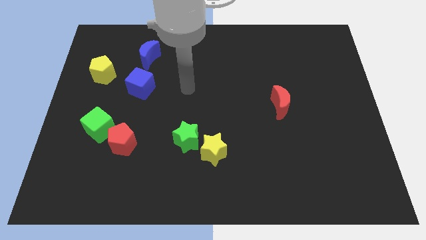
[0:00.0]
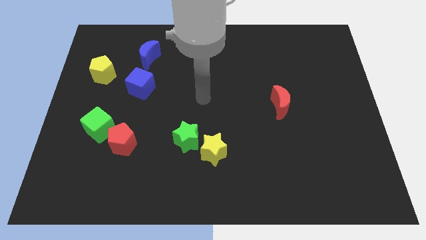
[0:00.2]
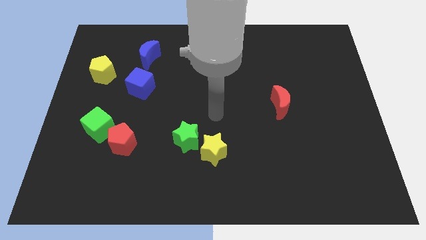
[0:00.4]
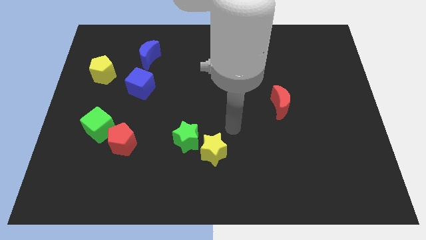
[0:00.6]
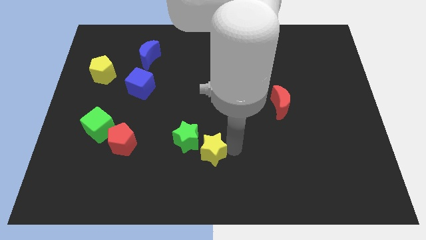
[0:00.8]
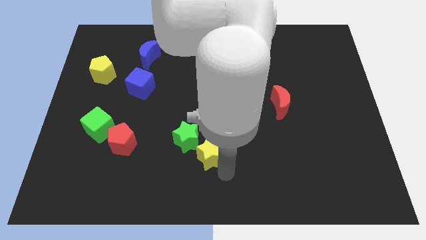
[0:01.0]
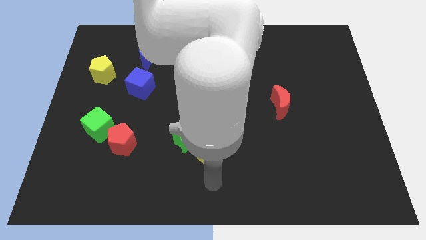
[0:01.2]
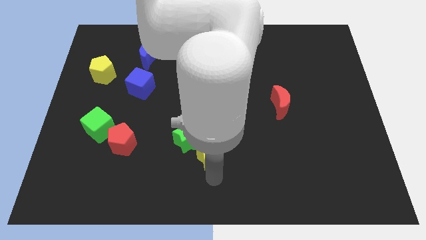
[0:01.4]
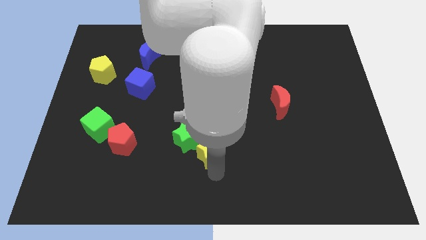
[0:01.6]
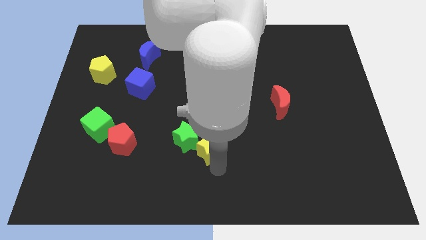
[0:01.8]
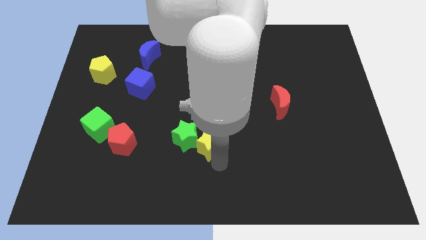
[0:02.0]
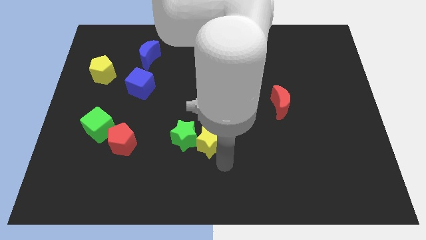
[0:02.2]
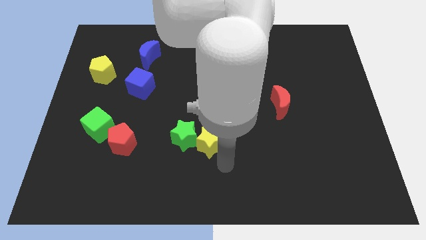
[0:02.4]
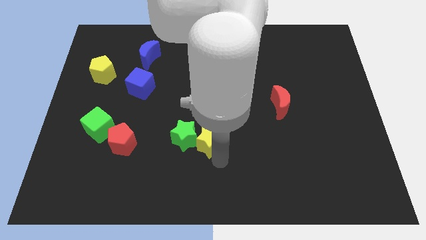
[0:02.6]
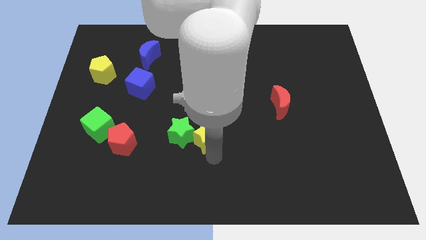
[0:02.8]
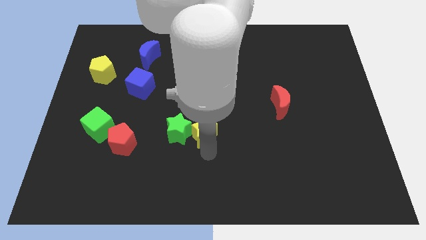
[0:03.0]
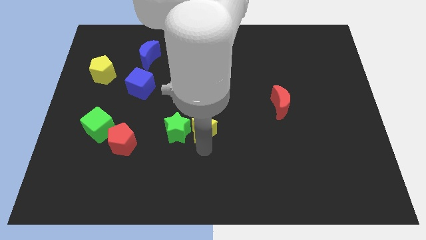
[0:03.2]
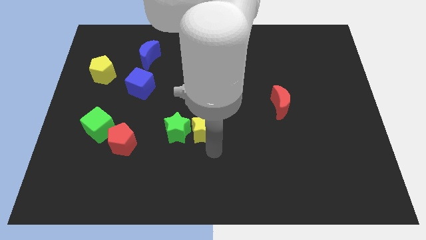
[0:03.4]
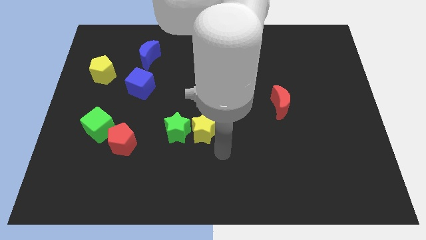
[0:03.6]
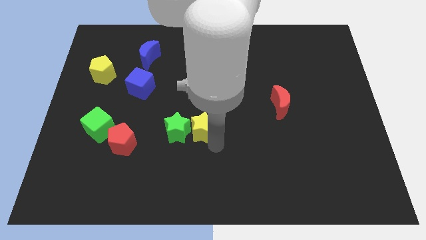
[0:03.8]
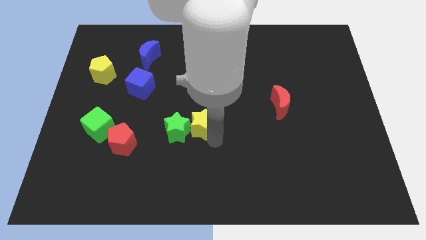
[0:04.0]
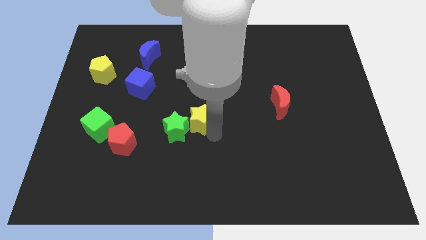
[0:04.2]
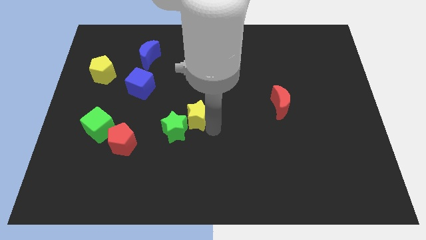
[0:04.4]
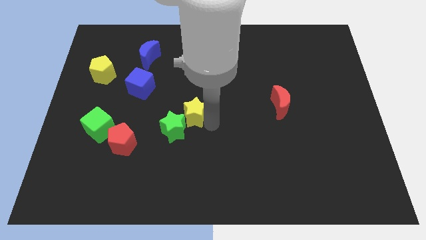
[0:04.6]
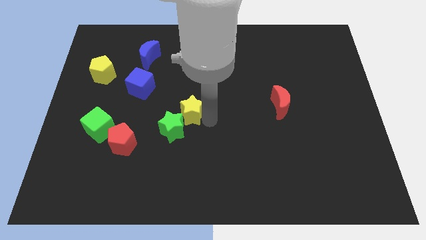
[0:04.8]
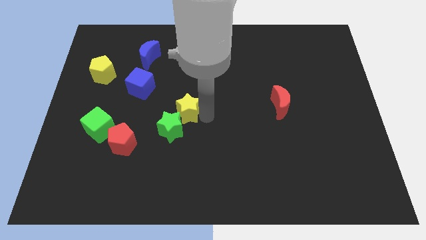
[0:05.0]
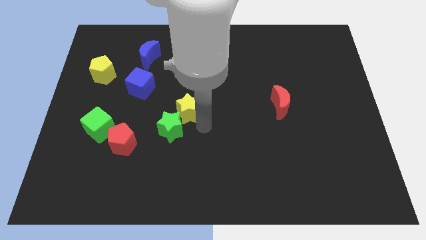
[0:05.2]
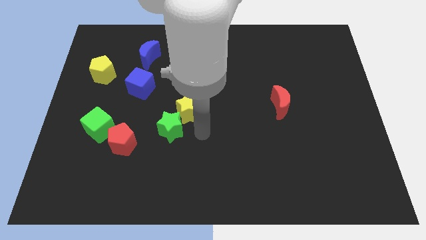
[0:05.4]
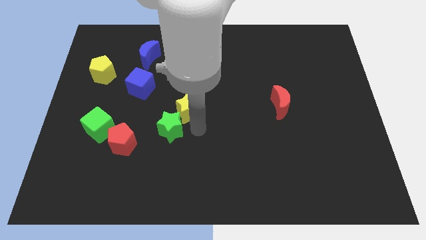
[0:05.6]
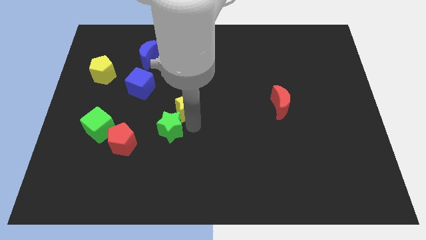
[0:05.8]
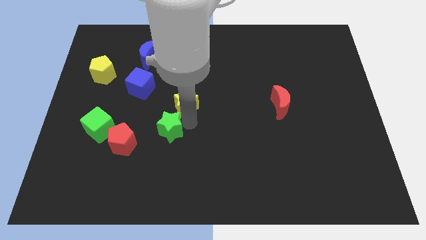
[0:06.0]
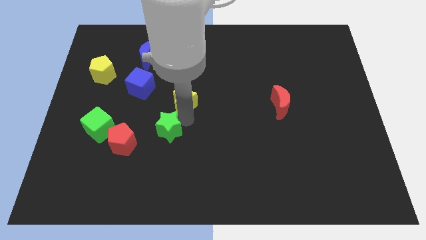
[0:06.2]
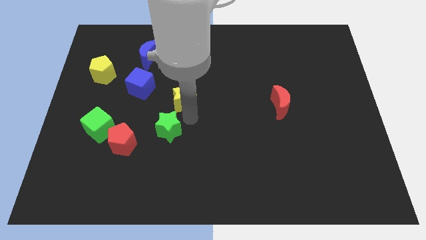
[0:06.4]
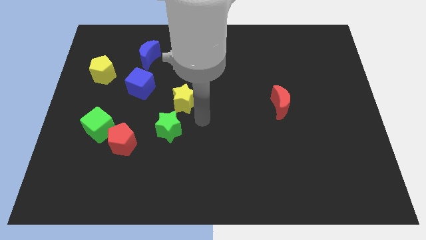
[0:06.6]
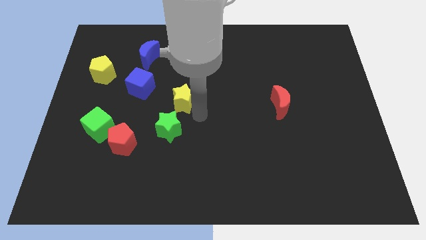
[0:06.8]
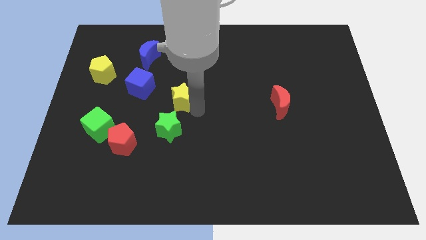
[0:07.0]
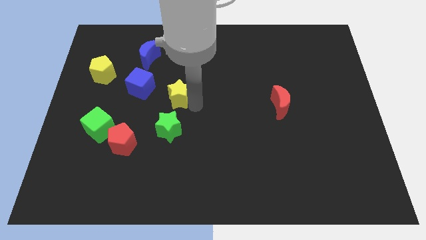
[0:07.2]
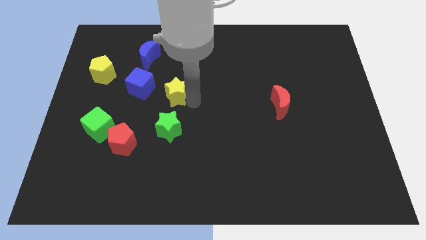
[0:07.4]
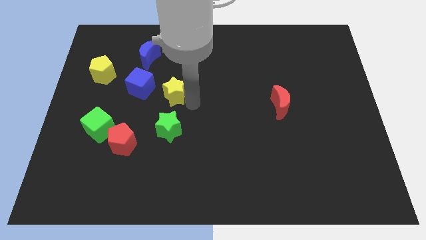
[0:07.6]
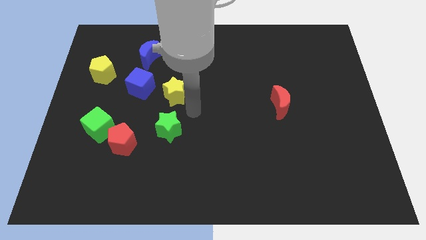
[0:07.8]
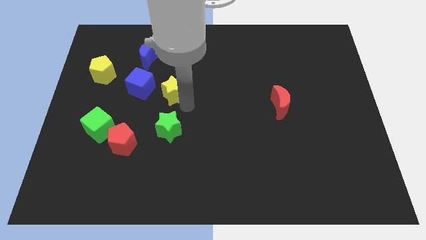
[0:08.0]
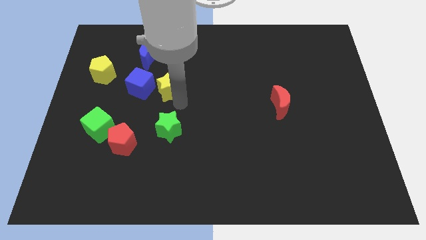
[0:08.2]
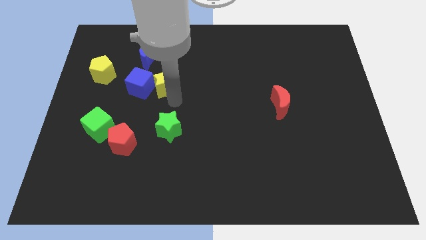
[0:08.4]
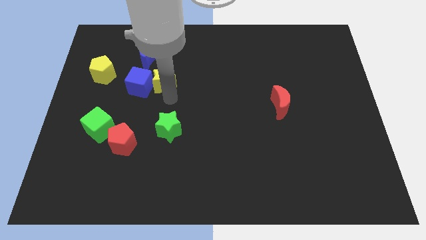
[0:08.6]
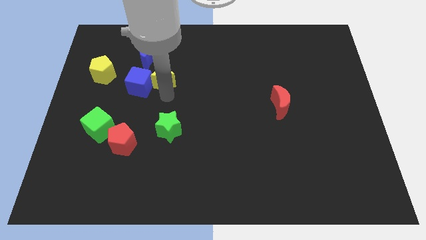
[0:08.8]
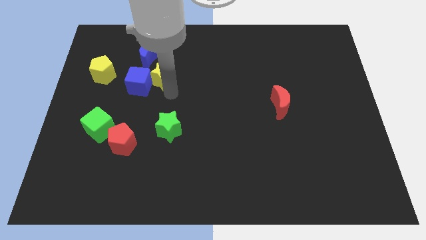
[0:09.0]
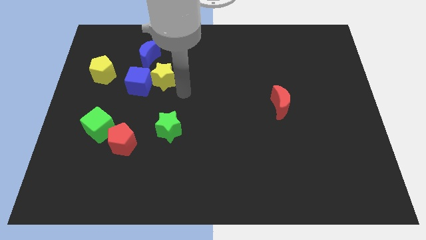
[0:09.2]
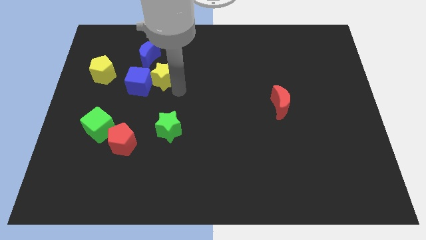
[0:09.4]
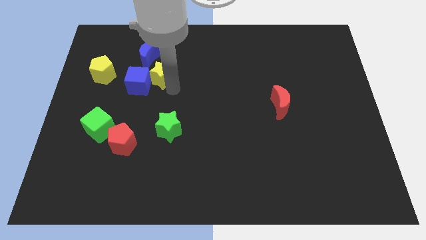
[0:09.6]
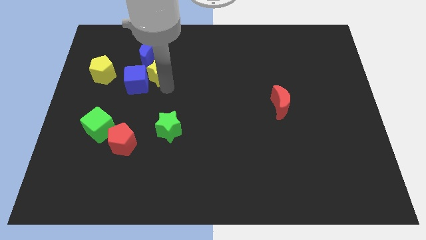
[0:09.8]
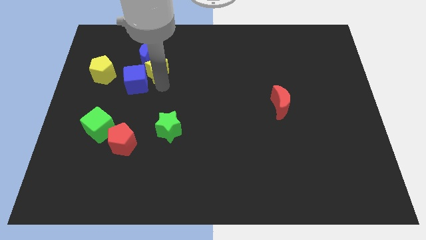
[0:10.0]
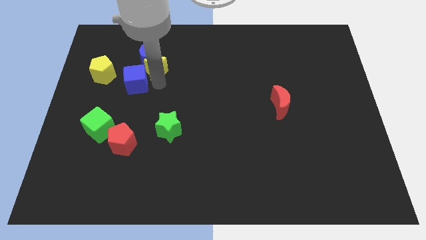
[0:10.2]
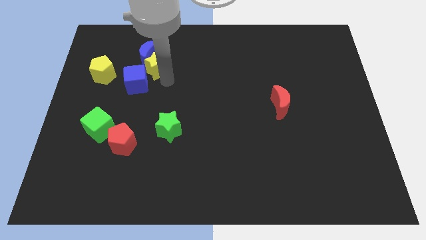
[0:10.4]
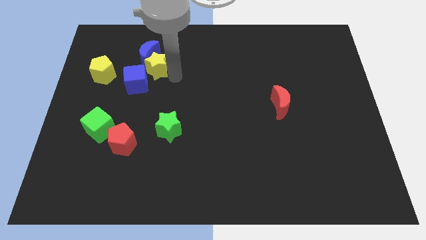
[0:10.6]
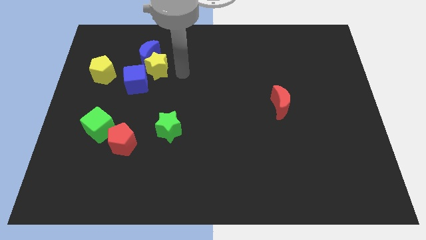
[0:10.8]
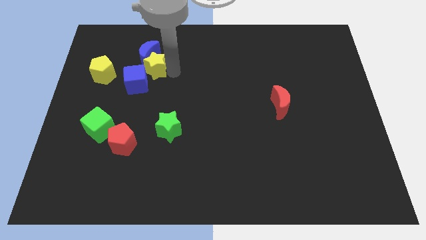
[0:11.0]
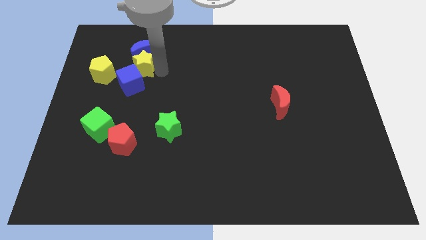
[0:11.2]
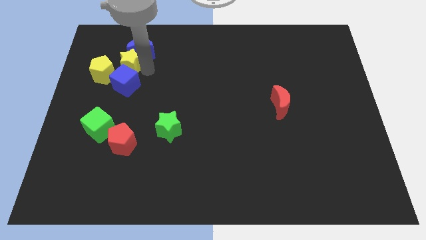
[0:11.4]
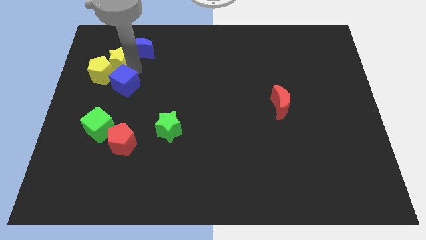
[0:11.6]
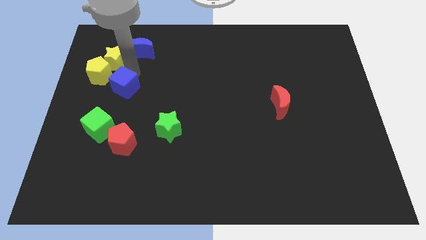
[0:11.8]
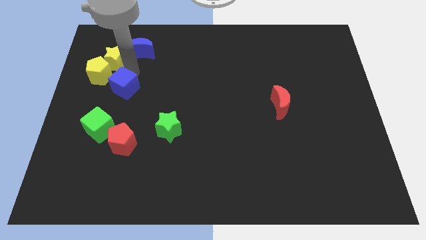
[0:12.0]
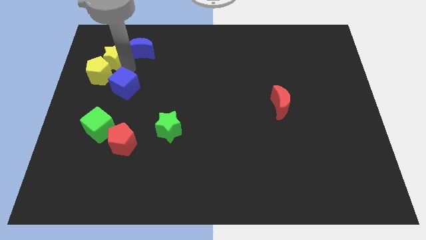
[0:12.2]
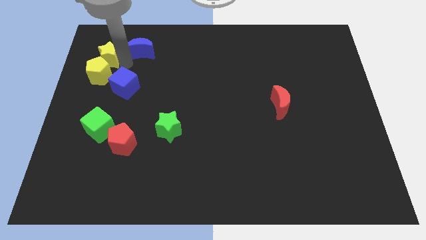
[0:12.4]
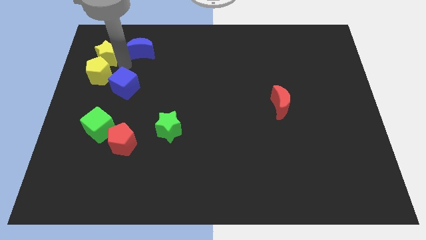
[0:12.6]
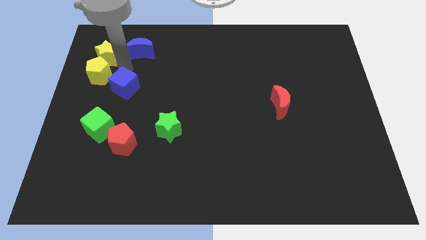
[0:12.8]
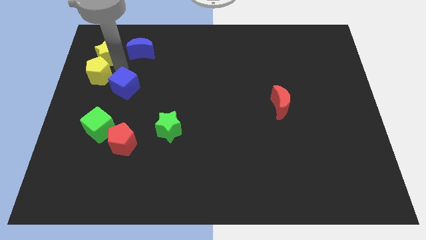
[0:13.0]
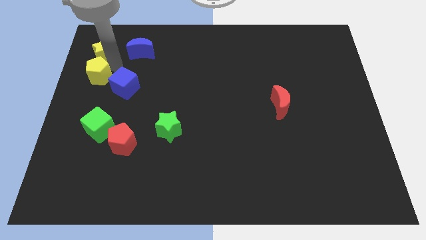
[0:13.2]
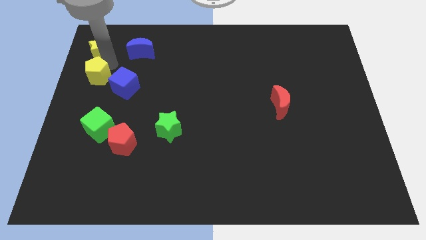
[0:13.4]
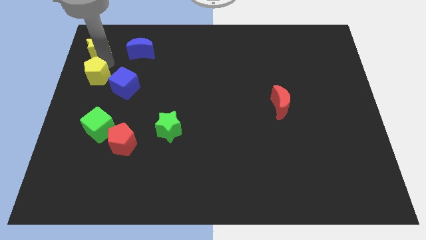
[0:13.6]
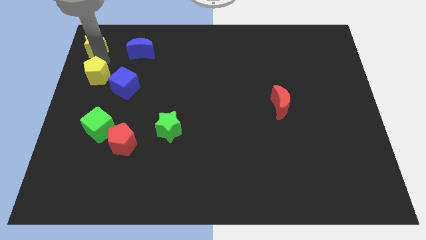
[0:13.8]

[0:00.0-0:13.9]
push the yellow star to the upper left corner
